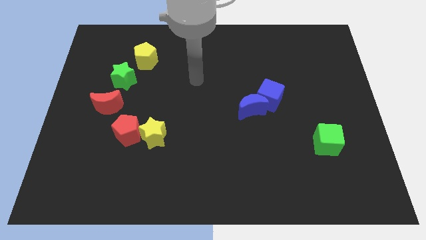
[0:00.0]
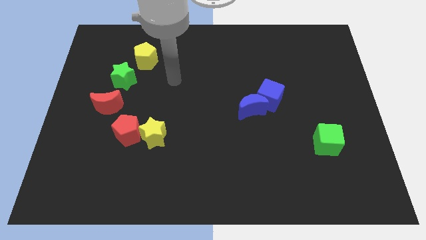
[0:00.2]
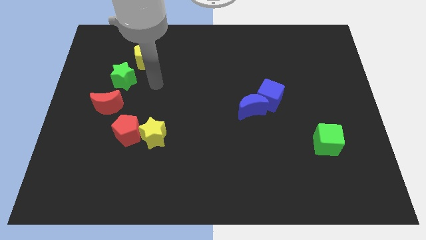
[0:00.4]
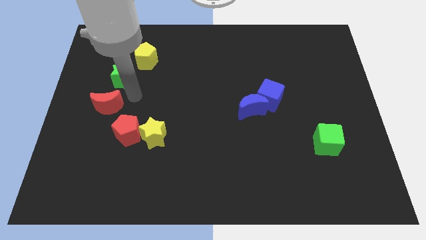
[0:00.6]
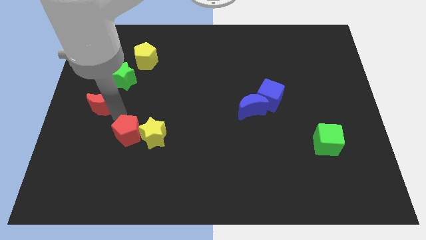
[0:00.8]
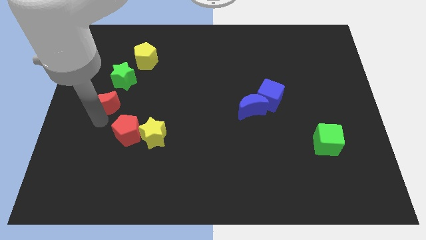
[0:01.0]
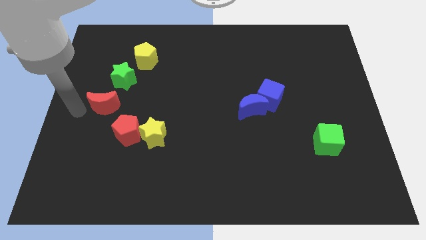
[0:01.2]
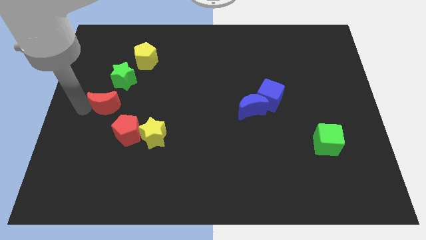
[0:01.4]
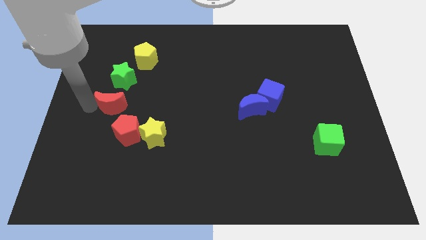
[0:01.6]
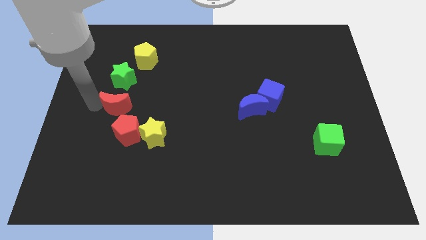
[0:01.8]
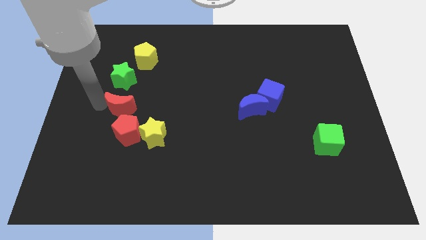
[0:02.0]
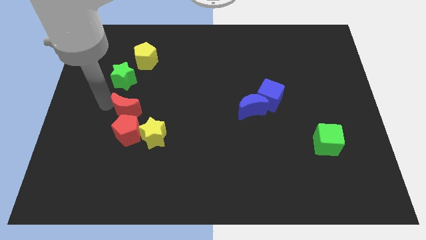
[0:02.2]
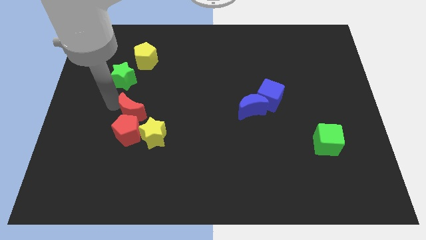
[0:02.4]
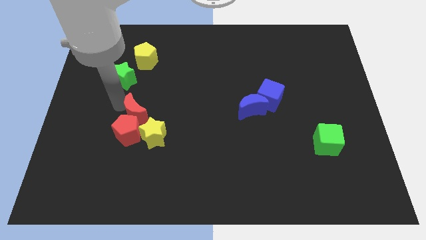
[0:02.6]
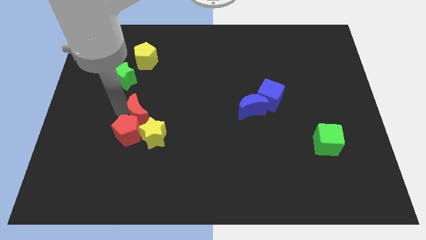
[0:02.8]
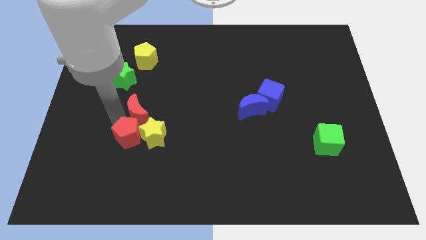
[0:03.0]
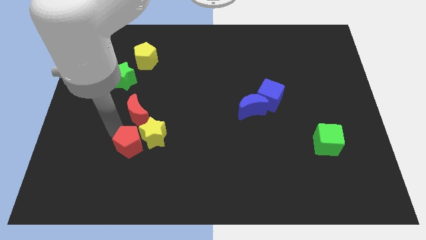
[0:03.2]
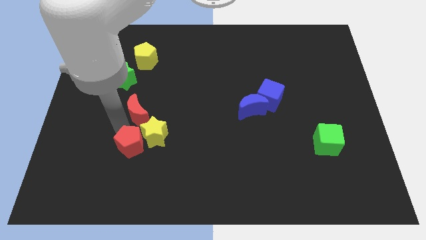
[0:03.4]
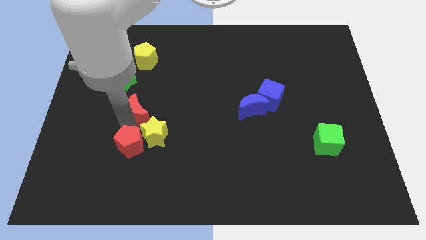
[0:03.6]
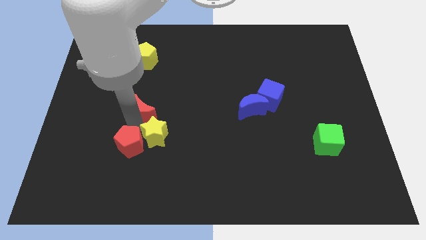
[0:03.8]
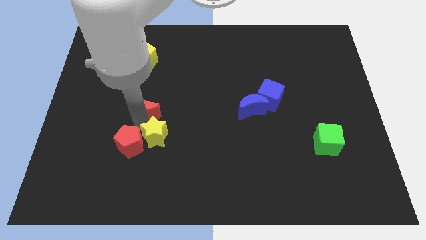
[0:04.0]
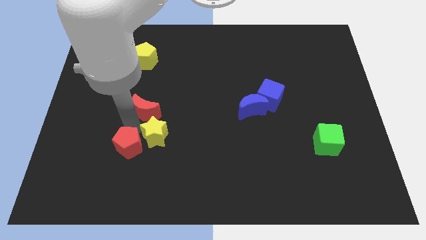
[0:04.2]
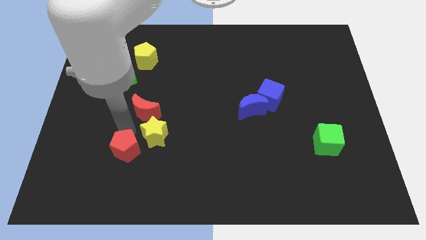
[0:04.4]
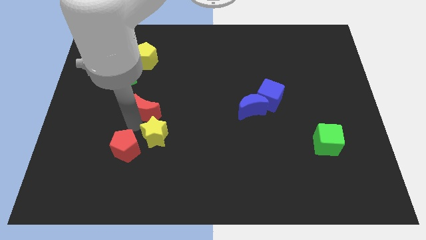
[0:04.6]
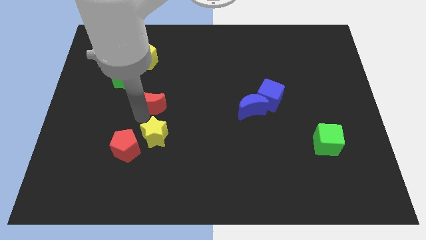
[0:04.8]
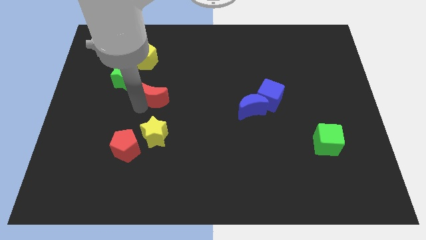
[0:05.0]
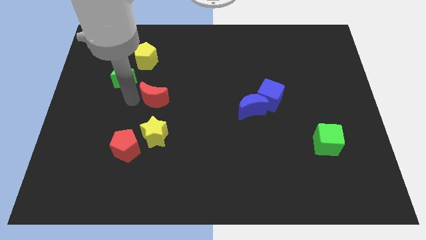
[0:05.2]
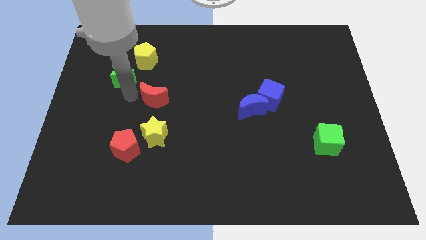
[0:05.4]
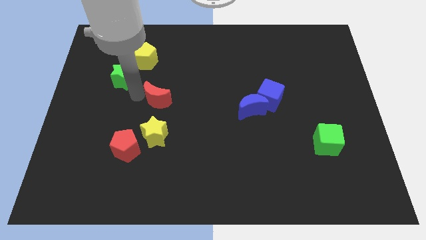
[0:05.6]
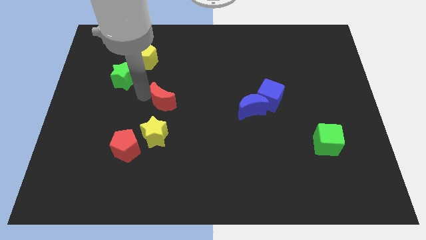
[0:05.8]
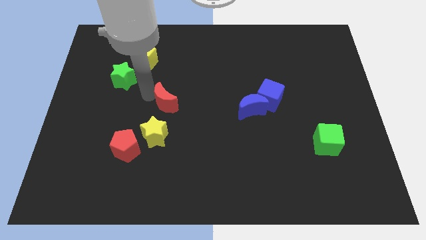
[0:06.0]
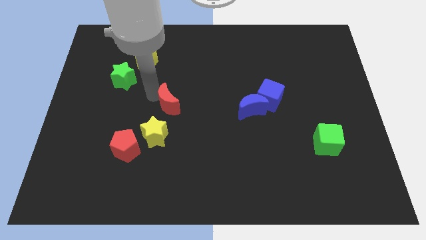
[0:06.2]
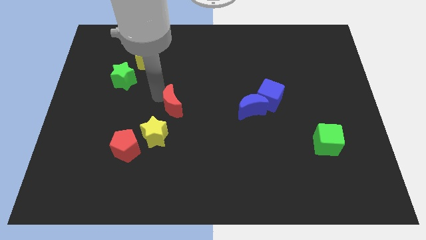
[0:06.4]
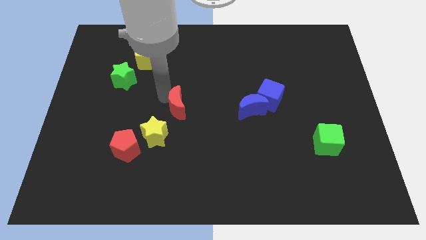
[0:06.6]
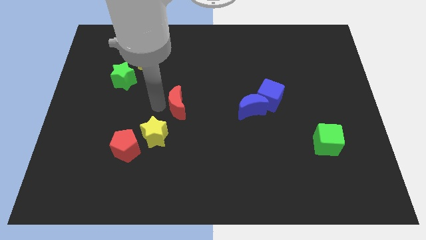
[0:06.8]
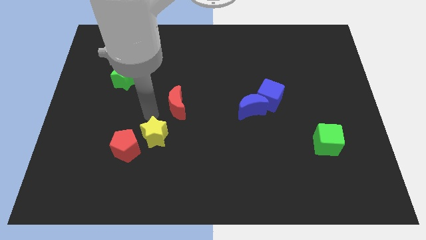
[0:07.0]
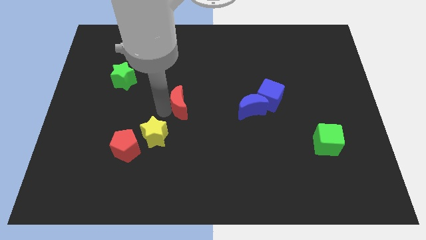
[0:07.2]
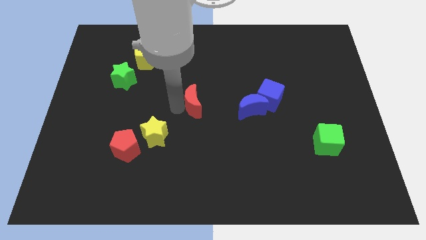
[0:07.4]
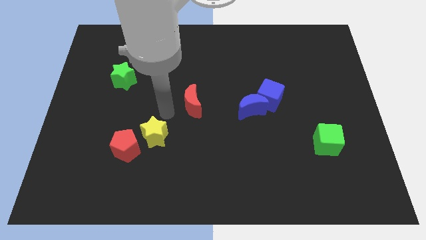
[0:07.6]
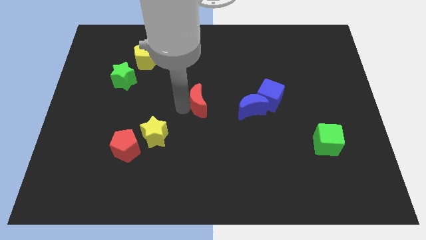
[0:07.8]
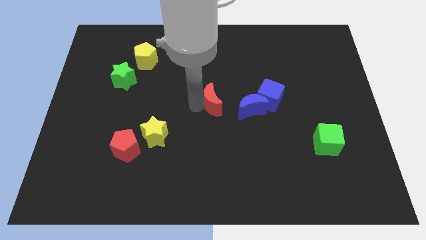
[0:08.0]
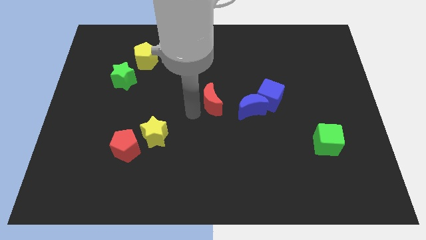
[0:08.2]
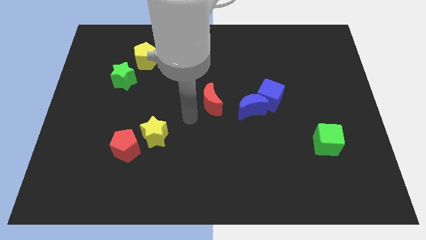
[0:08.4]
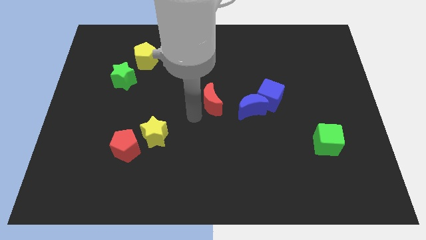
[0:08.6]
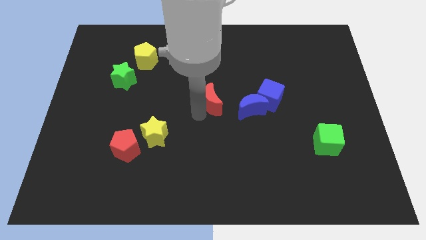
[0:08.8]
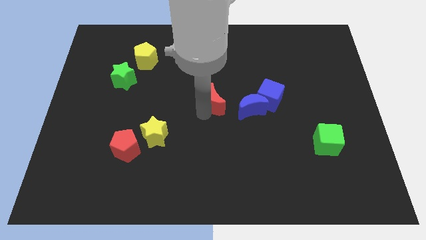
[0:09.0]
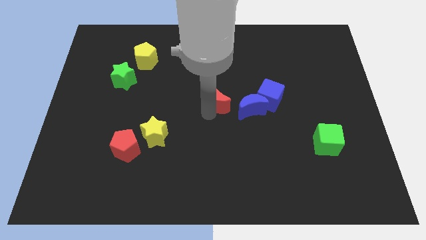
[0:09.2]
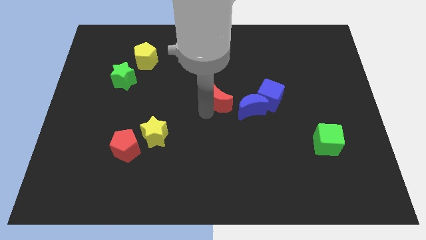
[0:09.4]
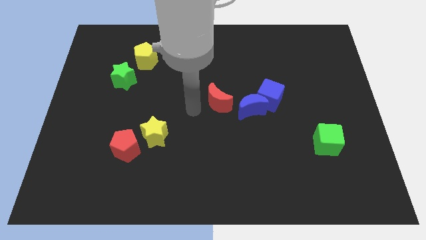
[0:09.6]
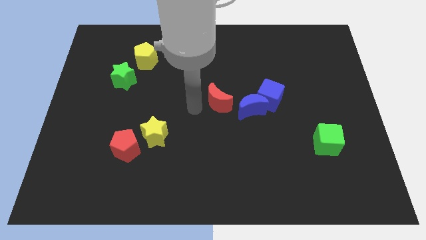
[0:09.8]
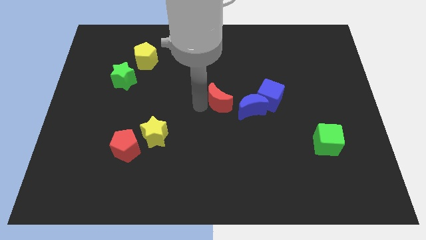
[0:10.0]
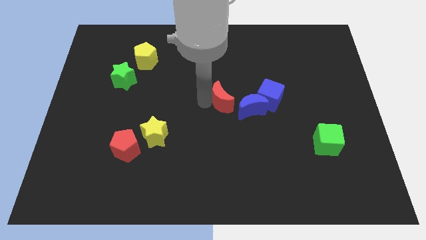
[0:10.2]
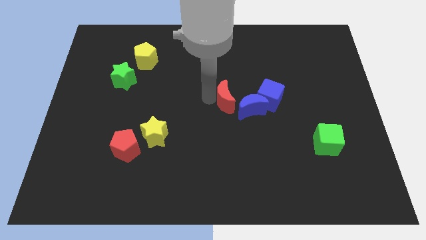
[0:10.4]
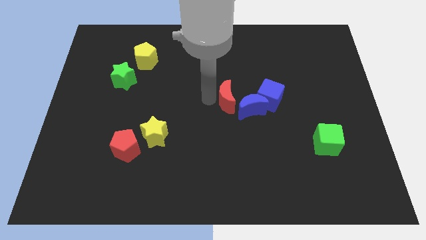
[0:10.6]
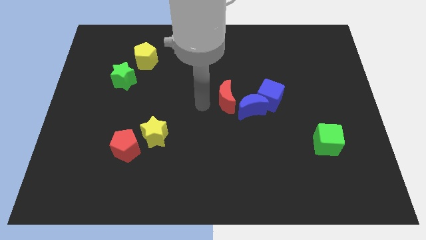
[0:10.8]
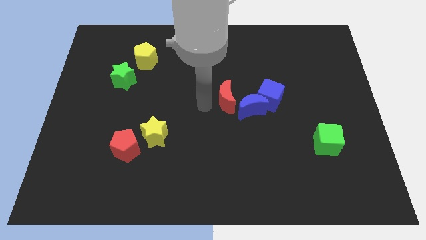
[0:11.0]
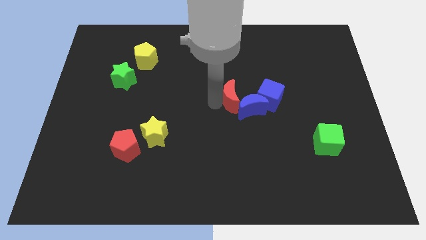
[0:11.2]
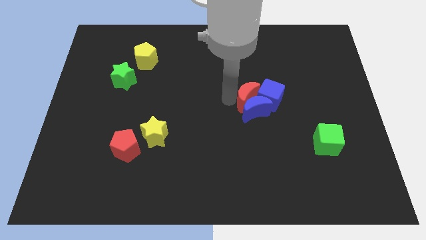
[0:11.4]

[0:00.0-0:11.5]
move the red moon next to the blue cube

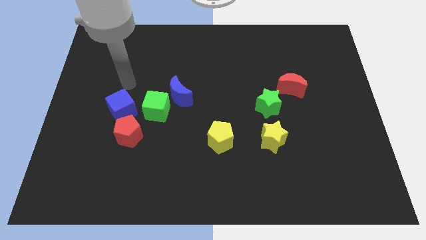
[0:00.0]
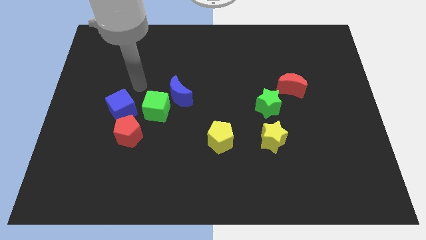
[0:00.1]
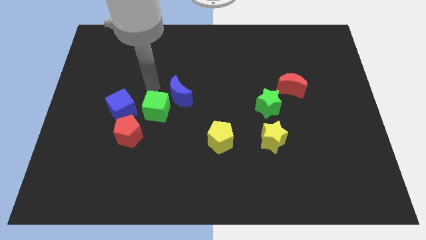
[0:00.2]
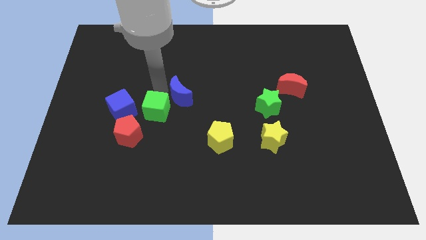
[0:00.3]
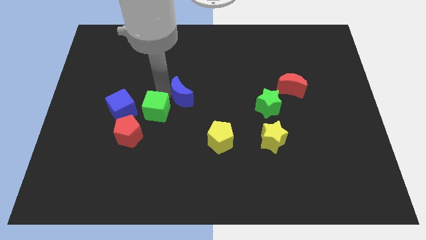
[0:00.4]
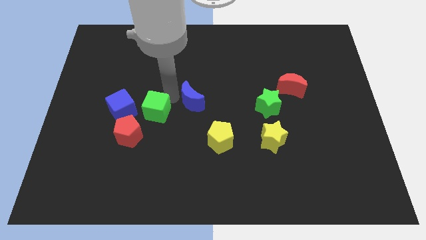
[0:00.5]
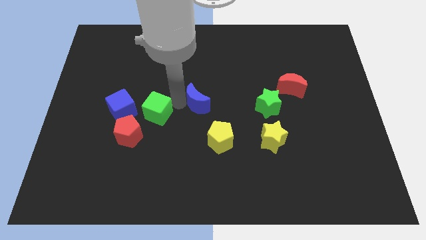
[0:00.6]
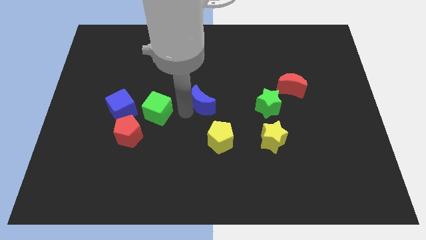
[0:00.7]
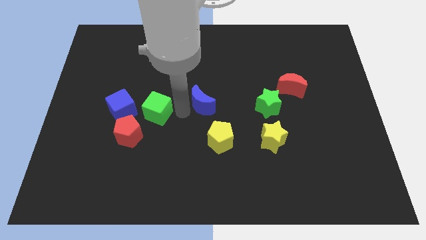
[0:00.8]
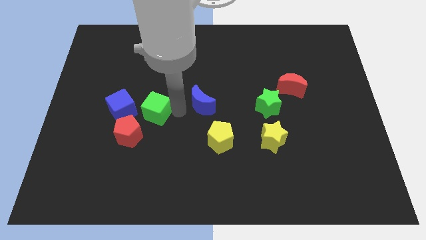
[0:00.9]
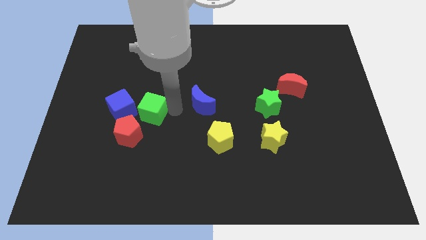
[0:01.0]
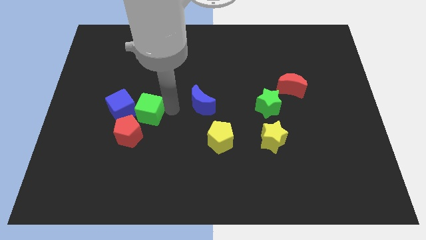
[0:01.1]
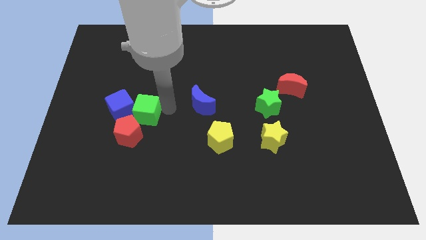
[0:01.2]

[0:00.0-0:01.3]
push the green cube close to the blue cube
